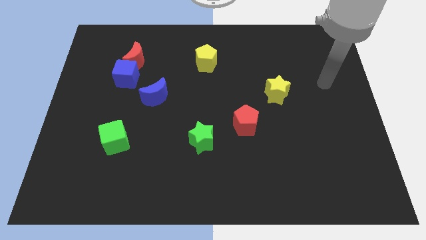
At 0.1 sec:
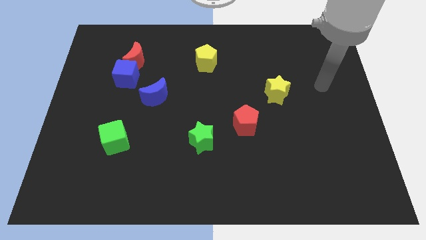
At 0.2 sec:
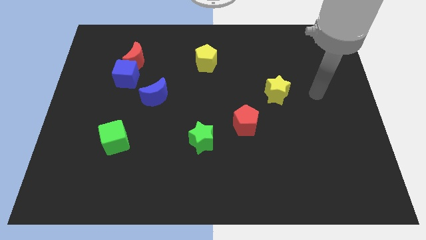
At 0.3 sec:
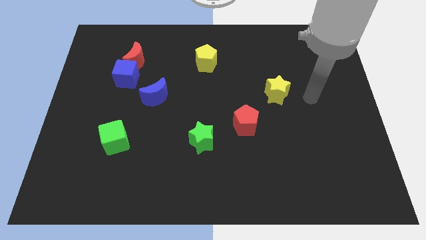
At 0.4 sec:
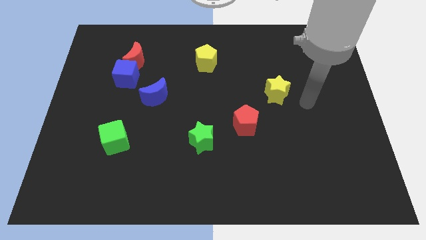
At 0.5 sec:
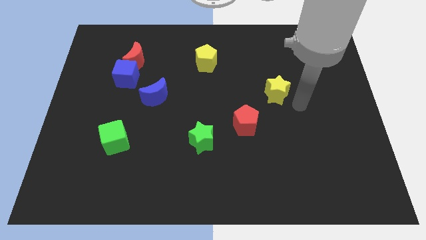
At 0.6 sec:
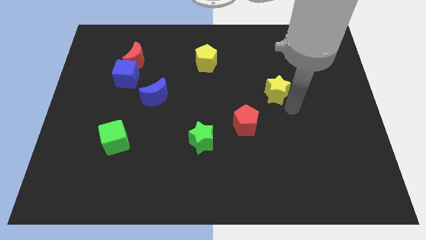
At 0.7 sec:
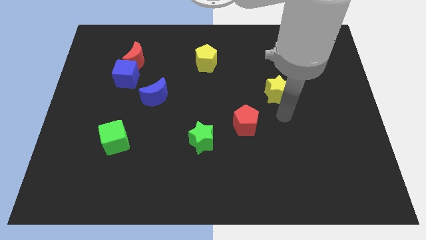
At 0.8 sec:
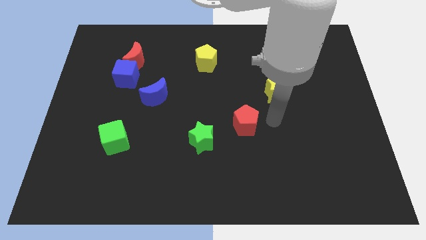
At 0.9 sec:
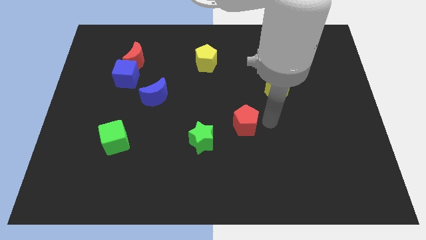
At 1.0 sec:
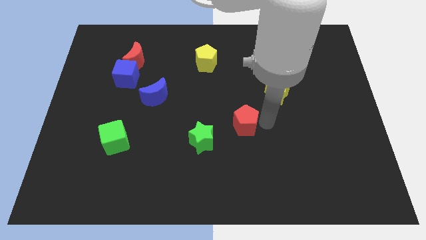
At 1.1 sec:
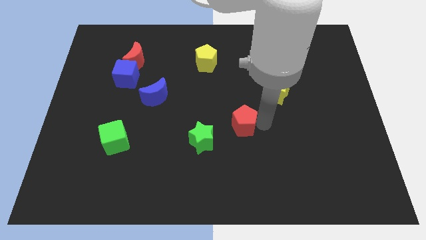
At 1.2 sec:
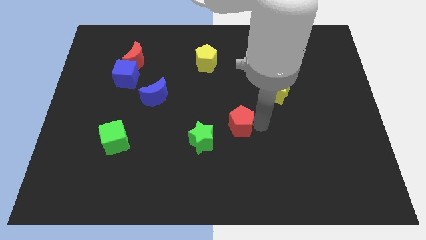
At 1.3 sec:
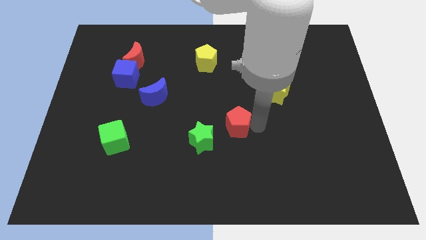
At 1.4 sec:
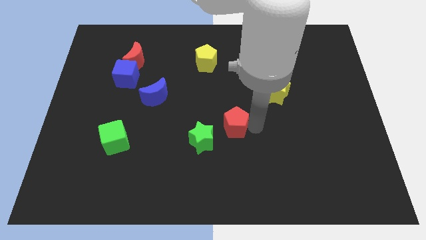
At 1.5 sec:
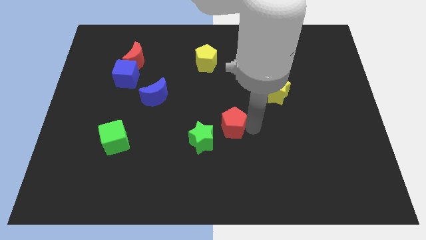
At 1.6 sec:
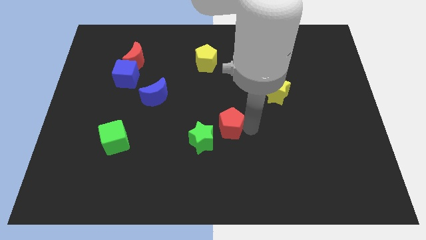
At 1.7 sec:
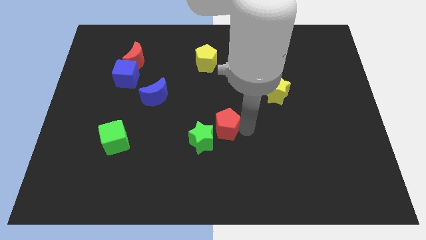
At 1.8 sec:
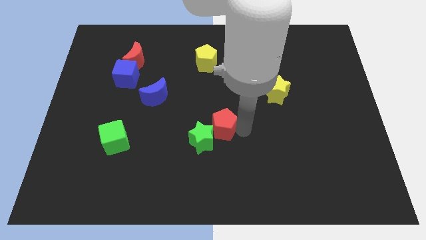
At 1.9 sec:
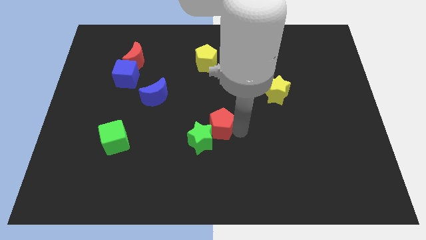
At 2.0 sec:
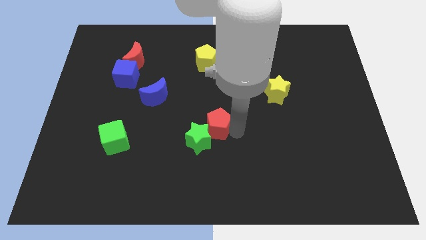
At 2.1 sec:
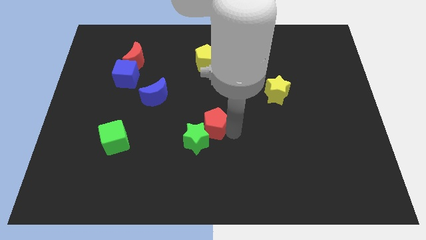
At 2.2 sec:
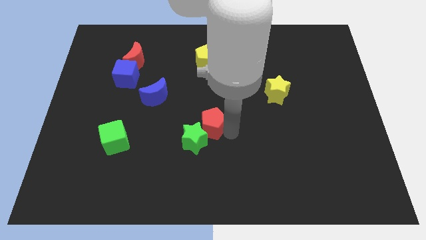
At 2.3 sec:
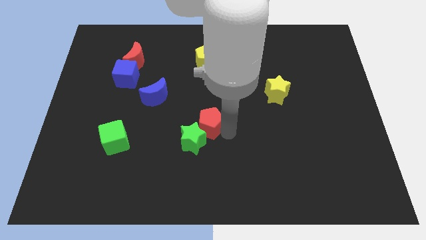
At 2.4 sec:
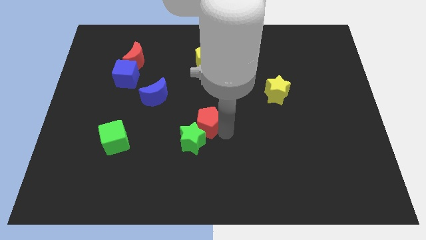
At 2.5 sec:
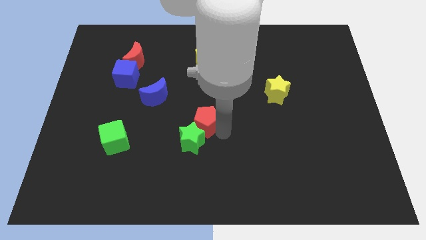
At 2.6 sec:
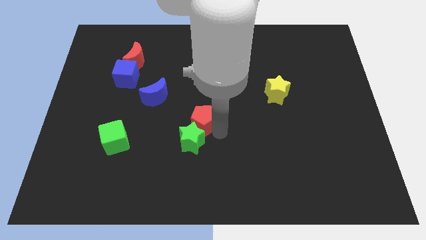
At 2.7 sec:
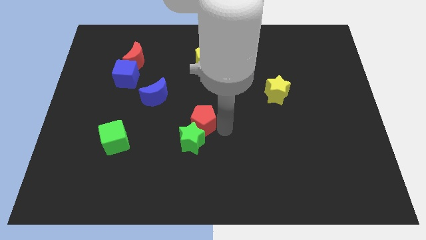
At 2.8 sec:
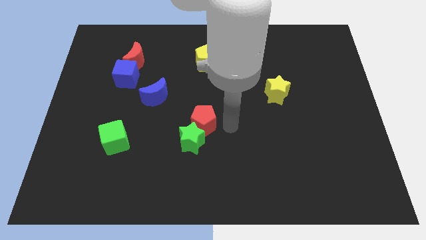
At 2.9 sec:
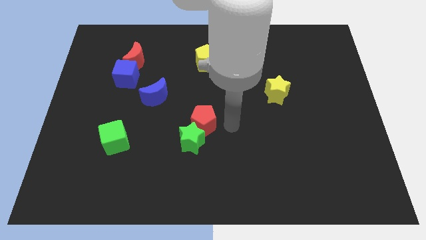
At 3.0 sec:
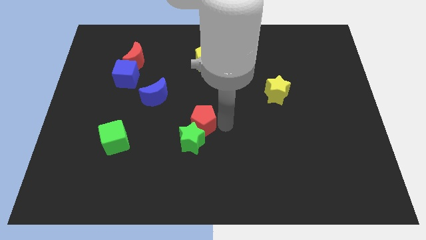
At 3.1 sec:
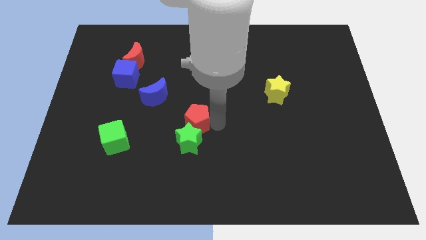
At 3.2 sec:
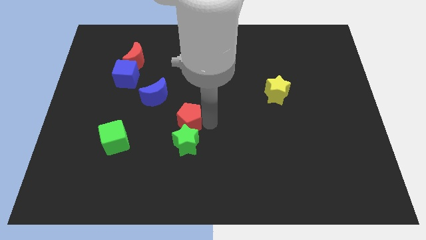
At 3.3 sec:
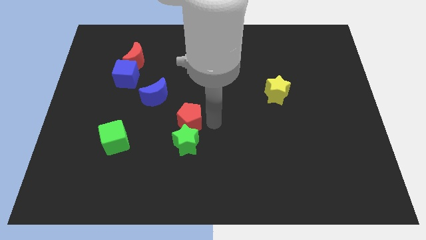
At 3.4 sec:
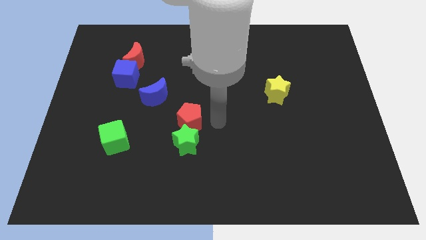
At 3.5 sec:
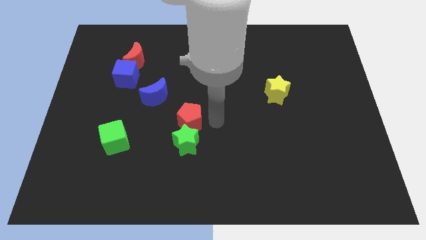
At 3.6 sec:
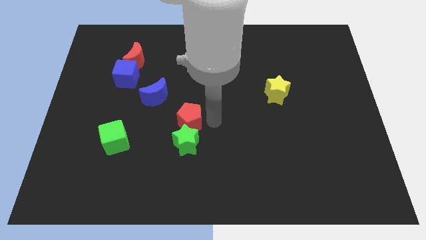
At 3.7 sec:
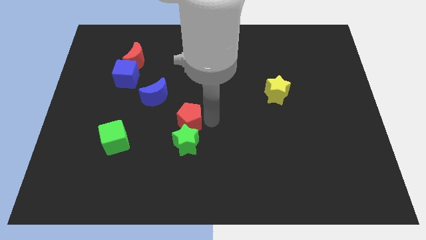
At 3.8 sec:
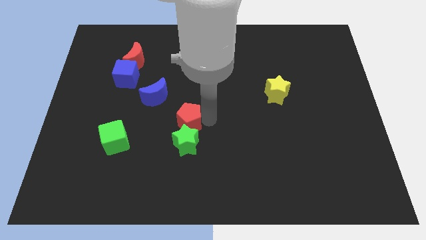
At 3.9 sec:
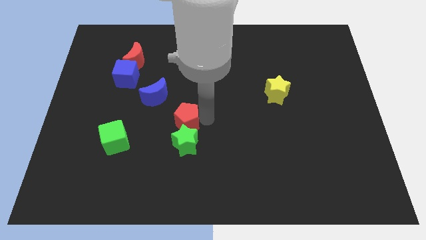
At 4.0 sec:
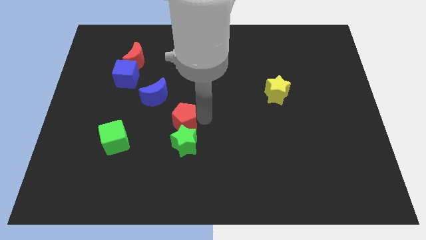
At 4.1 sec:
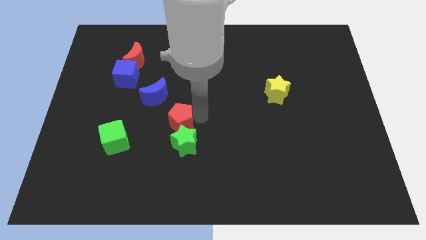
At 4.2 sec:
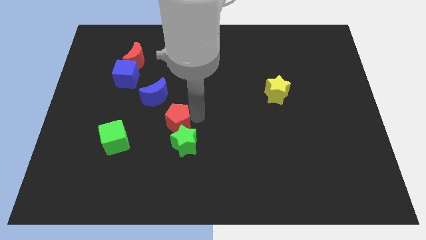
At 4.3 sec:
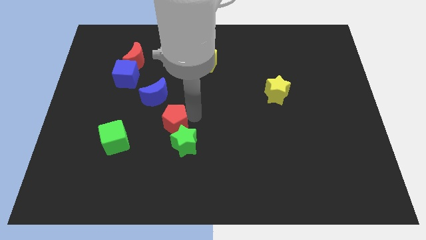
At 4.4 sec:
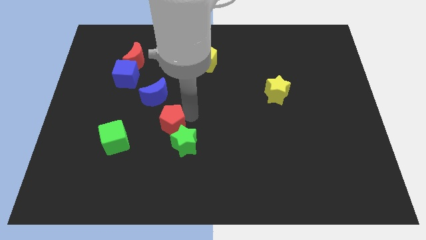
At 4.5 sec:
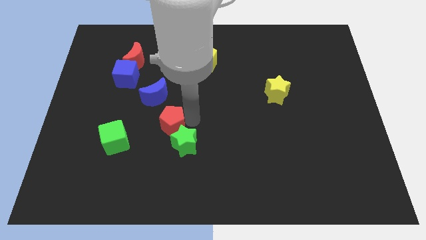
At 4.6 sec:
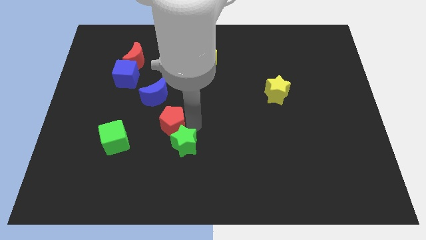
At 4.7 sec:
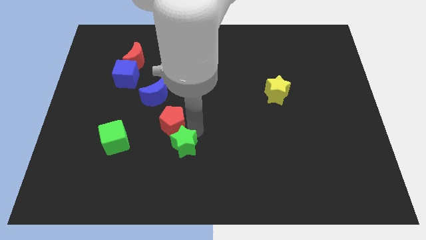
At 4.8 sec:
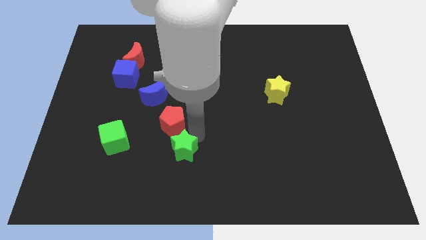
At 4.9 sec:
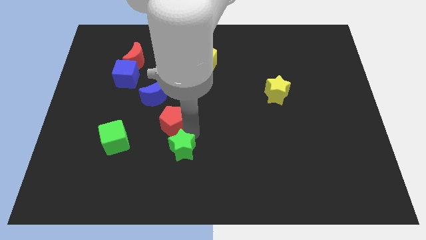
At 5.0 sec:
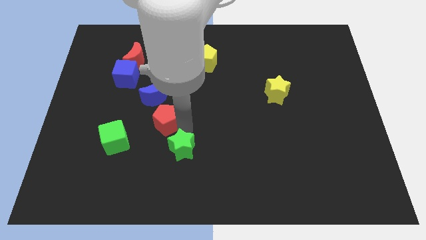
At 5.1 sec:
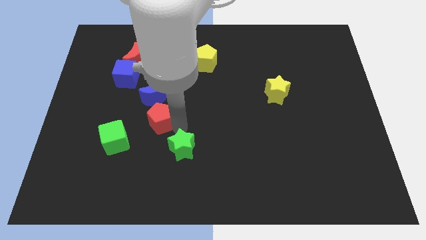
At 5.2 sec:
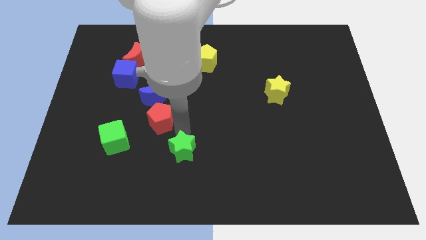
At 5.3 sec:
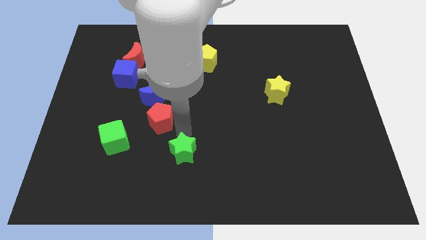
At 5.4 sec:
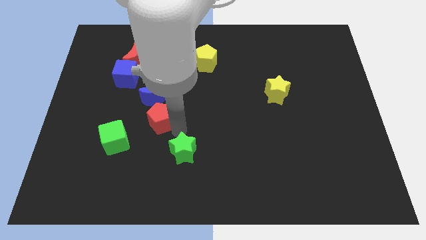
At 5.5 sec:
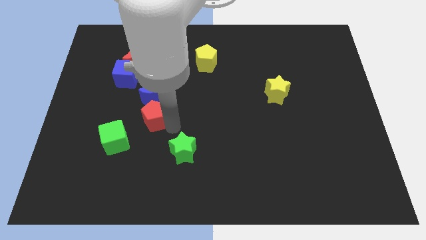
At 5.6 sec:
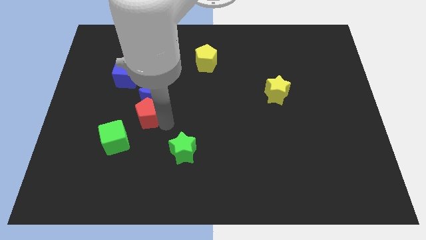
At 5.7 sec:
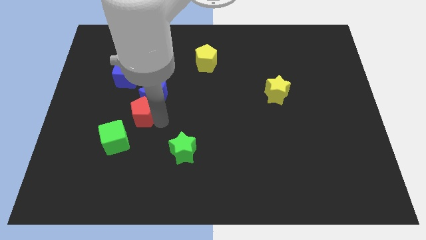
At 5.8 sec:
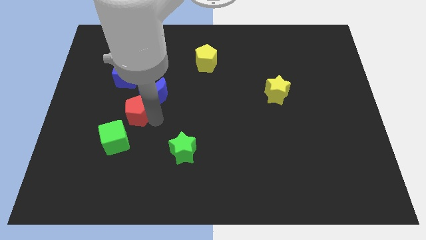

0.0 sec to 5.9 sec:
slide the red pentagon to the top of the green cube

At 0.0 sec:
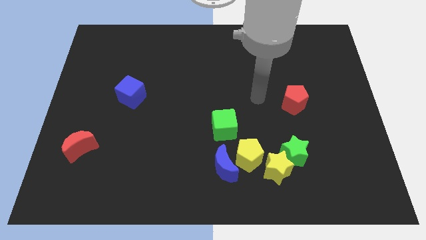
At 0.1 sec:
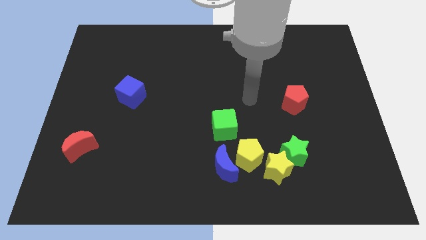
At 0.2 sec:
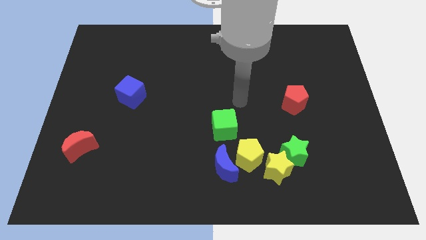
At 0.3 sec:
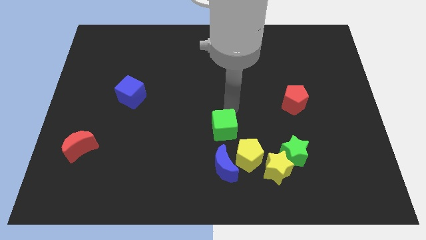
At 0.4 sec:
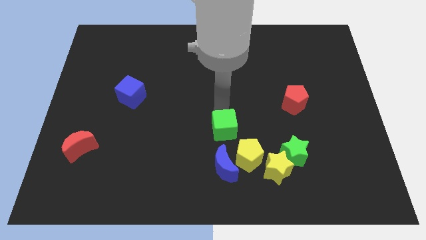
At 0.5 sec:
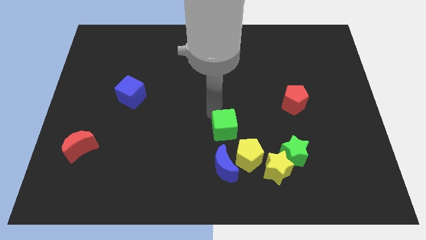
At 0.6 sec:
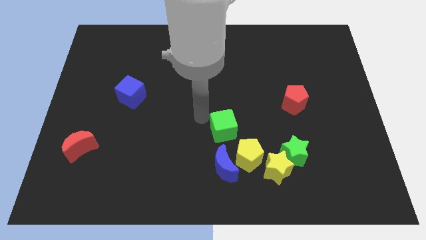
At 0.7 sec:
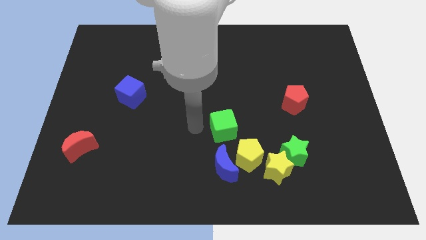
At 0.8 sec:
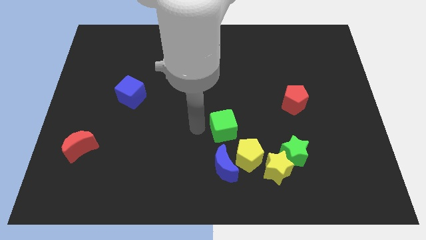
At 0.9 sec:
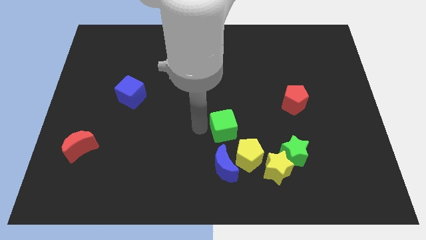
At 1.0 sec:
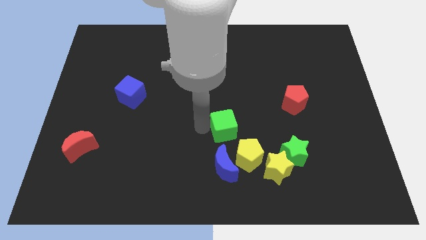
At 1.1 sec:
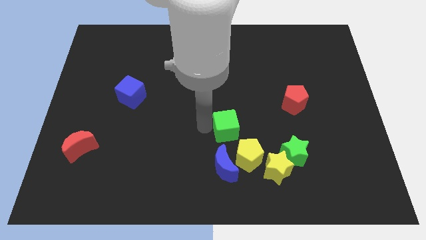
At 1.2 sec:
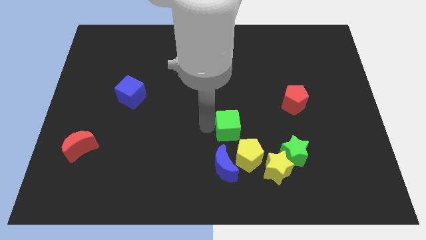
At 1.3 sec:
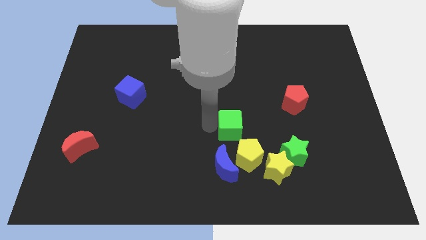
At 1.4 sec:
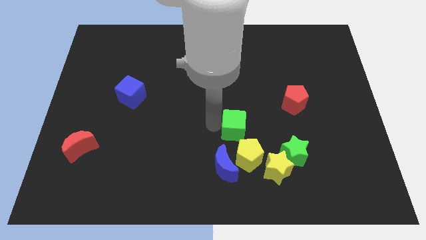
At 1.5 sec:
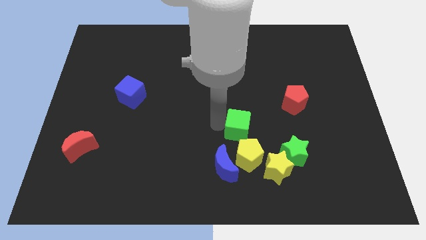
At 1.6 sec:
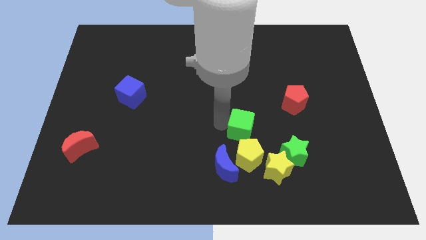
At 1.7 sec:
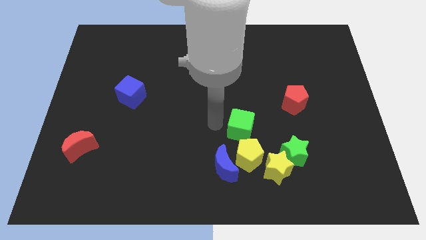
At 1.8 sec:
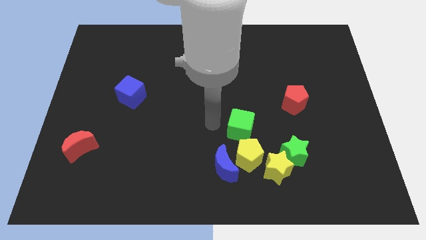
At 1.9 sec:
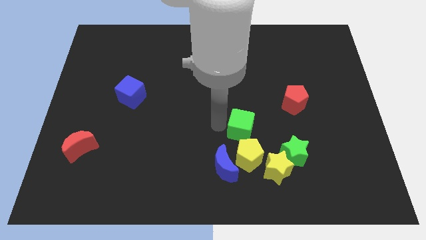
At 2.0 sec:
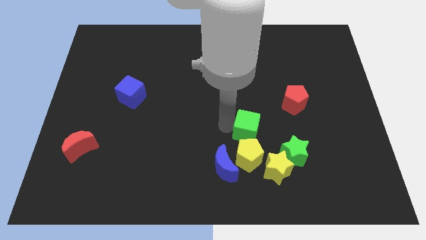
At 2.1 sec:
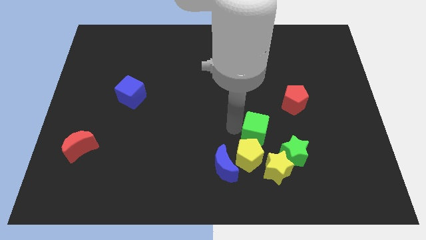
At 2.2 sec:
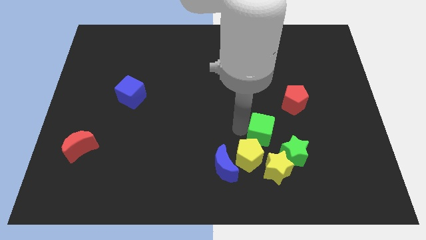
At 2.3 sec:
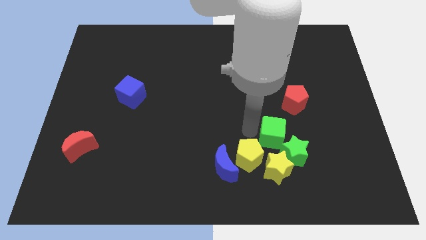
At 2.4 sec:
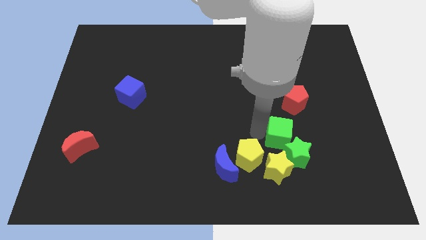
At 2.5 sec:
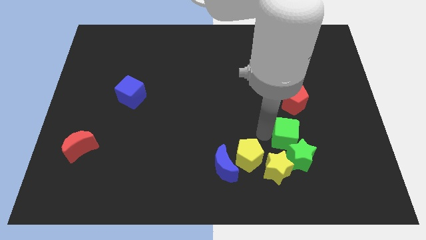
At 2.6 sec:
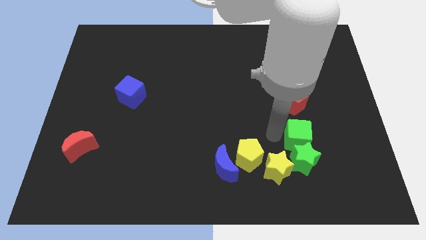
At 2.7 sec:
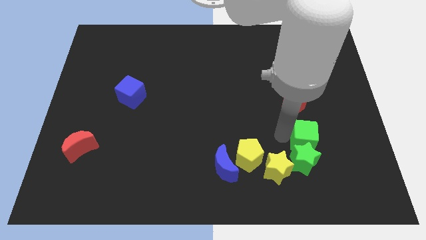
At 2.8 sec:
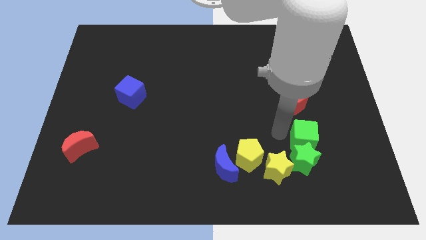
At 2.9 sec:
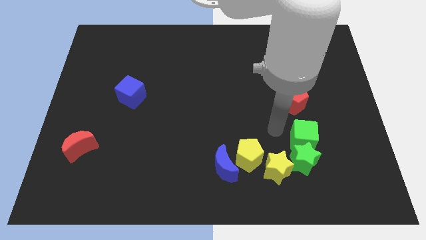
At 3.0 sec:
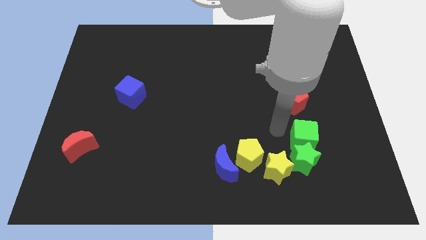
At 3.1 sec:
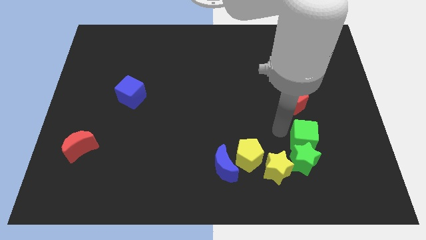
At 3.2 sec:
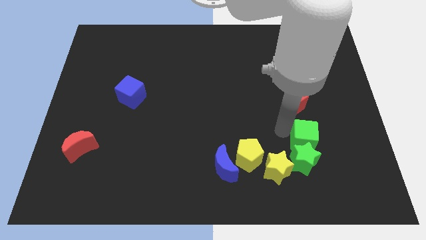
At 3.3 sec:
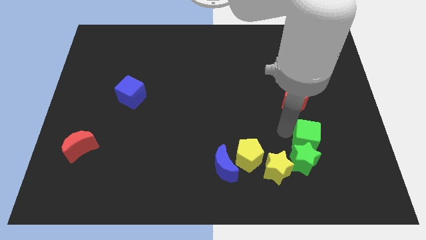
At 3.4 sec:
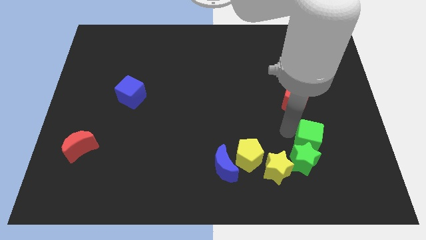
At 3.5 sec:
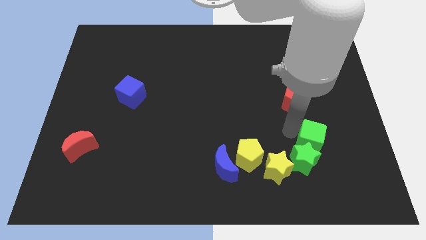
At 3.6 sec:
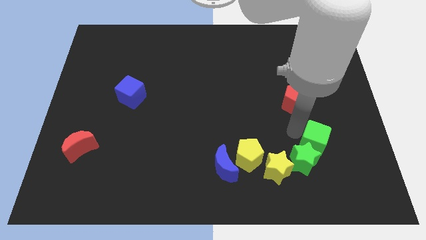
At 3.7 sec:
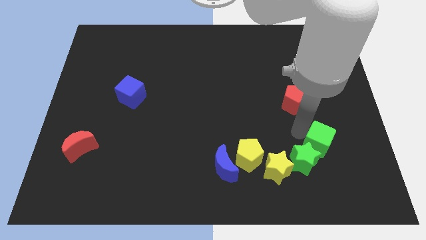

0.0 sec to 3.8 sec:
slide the green cube right of the green star
